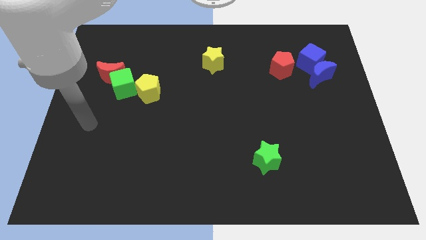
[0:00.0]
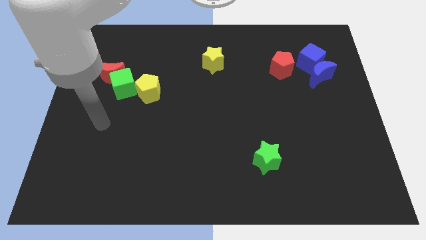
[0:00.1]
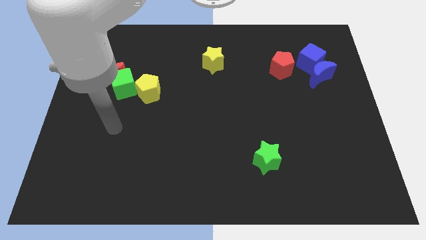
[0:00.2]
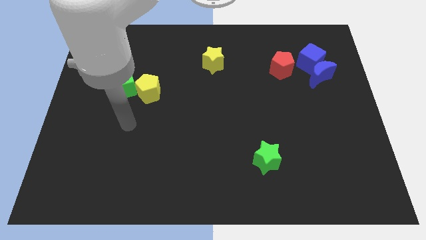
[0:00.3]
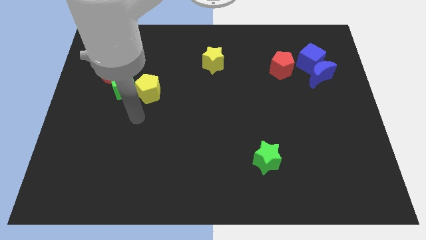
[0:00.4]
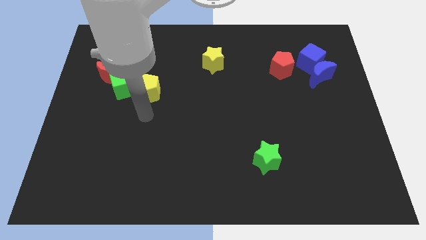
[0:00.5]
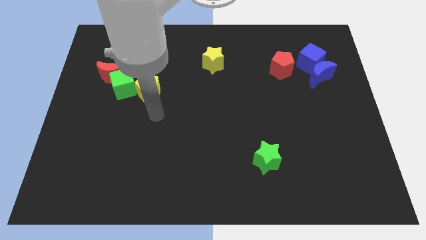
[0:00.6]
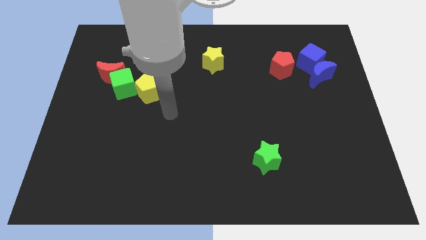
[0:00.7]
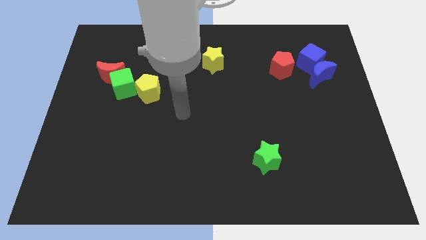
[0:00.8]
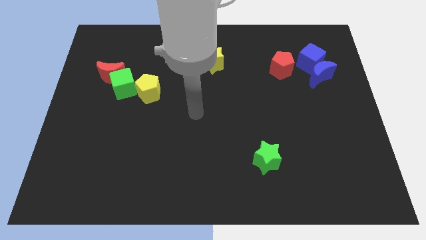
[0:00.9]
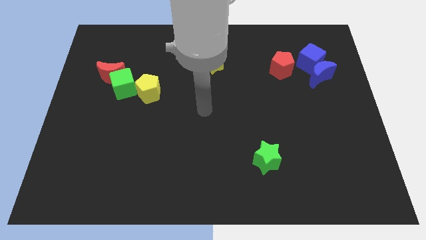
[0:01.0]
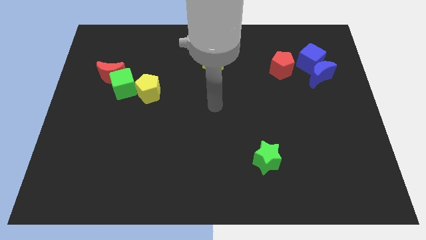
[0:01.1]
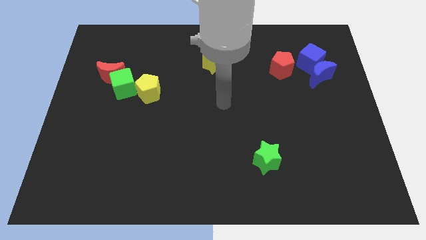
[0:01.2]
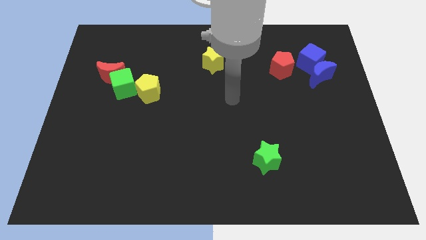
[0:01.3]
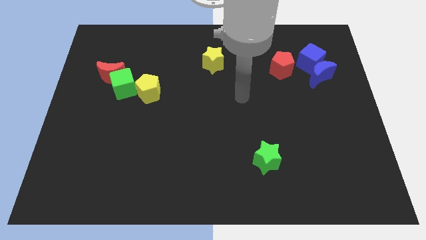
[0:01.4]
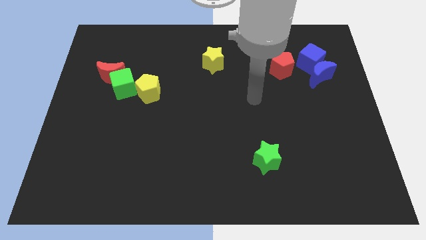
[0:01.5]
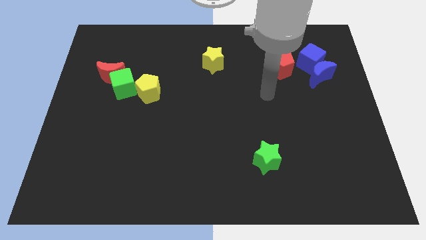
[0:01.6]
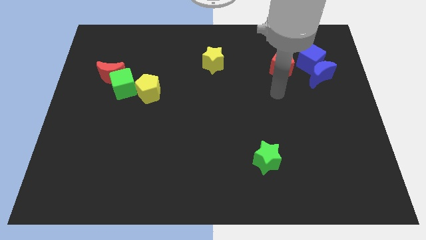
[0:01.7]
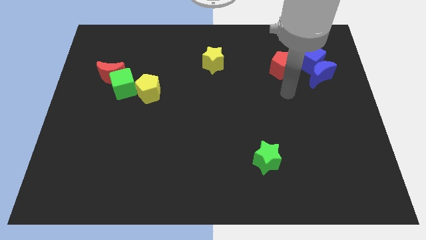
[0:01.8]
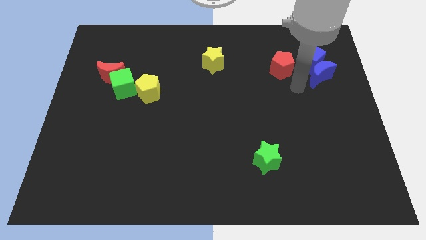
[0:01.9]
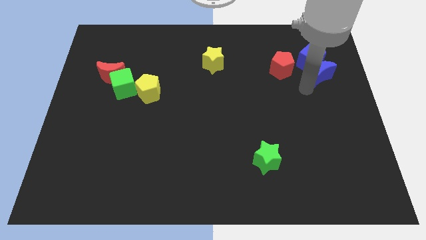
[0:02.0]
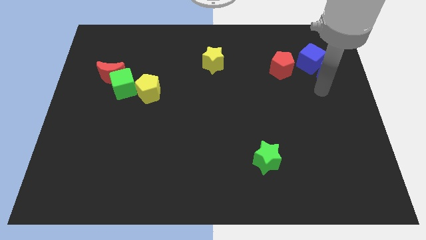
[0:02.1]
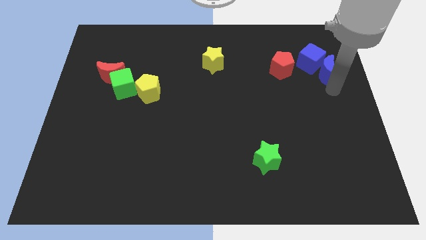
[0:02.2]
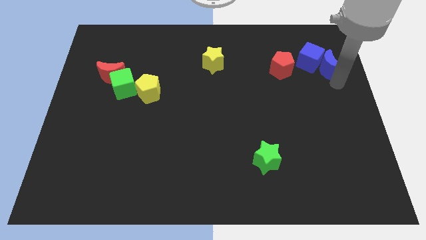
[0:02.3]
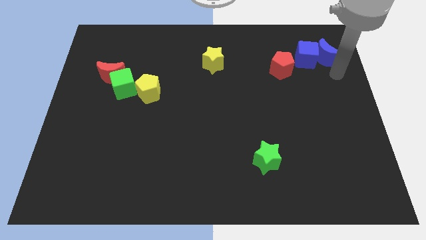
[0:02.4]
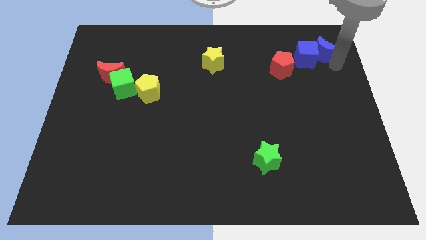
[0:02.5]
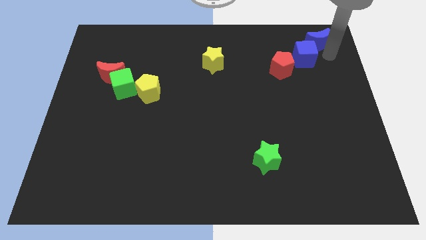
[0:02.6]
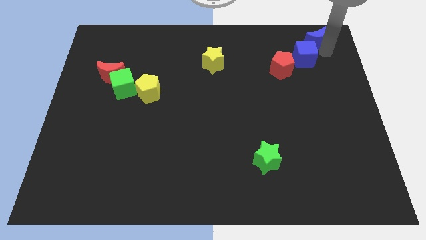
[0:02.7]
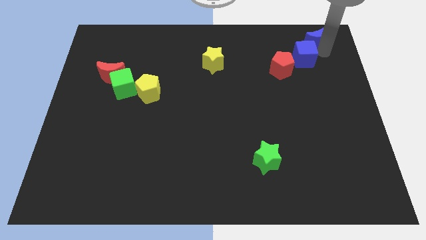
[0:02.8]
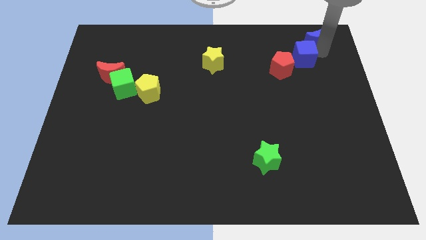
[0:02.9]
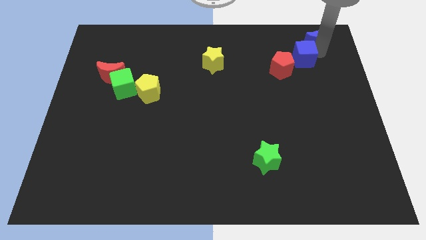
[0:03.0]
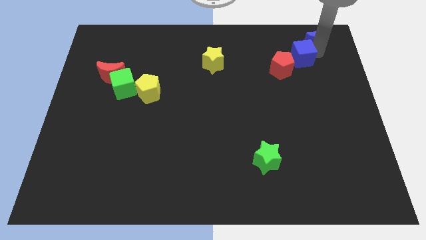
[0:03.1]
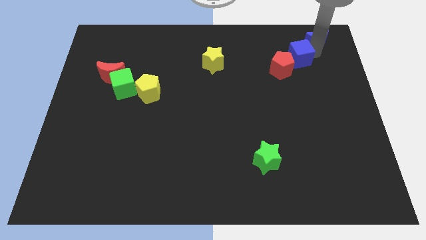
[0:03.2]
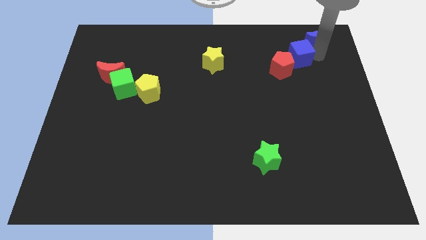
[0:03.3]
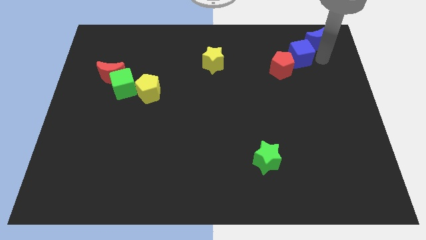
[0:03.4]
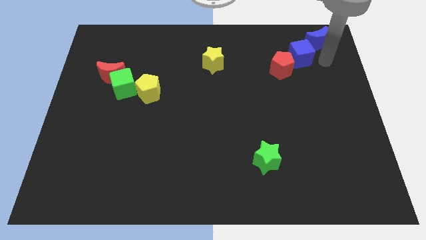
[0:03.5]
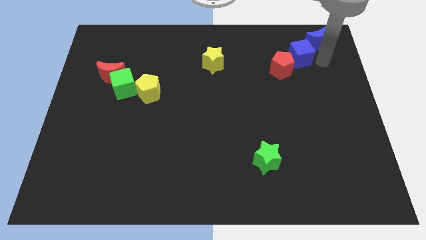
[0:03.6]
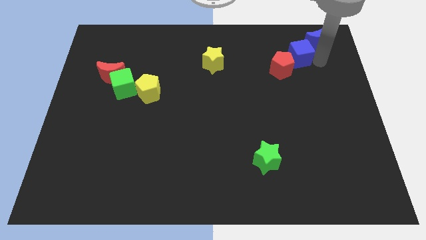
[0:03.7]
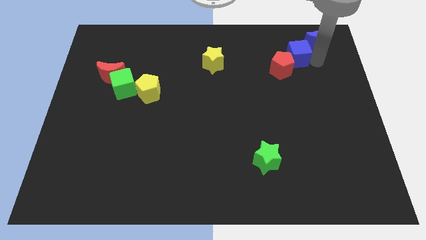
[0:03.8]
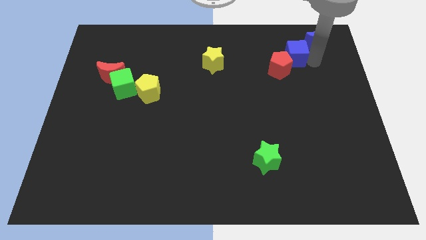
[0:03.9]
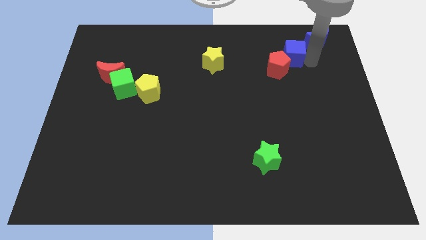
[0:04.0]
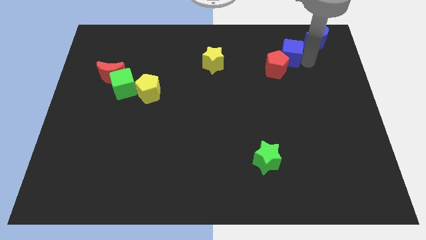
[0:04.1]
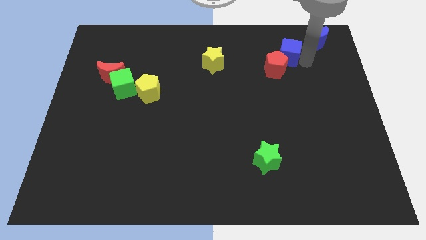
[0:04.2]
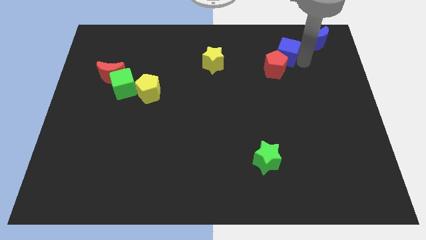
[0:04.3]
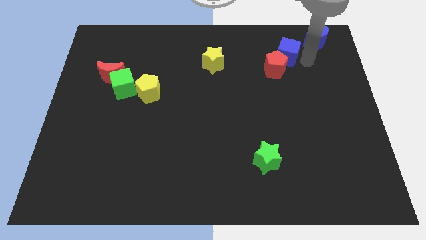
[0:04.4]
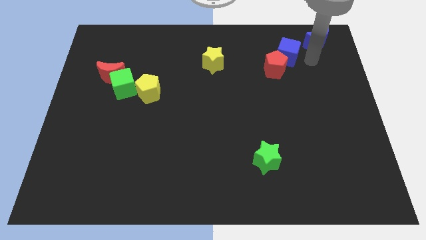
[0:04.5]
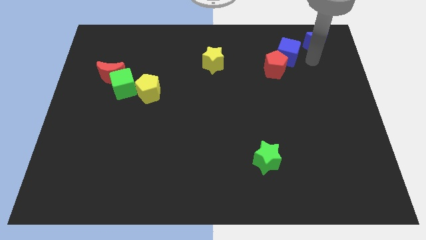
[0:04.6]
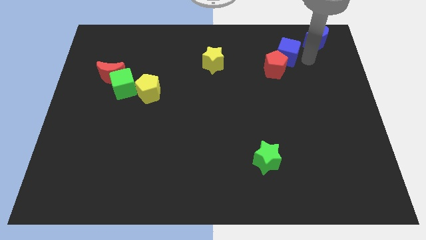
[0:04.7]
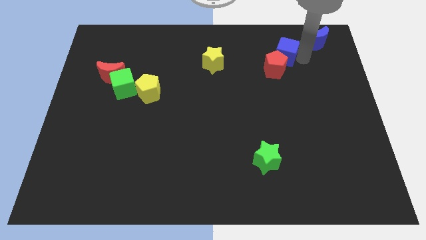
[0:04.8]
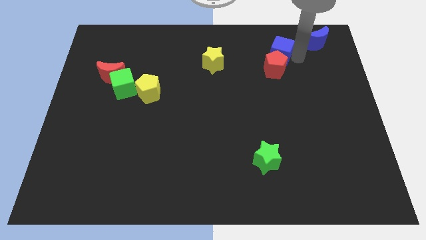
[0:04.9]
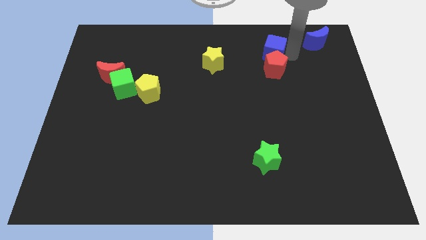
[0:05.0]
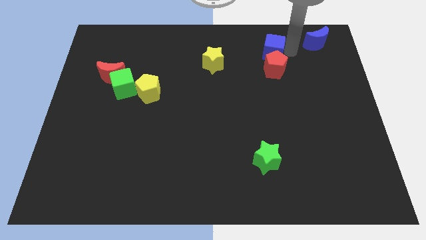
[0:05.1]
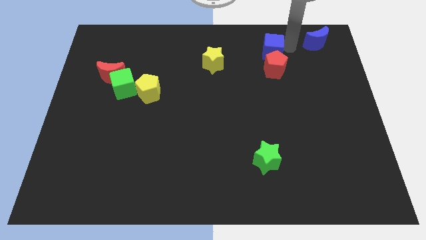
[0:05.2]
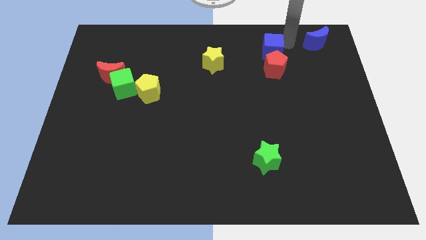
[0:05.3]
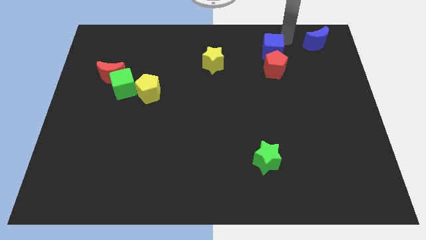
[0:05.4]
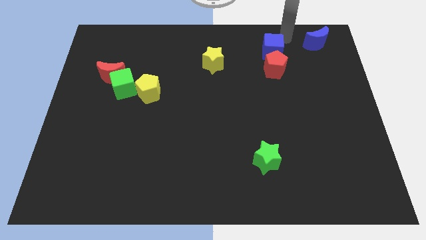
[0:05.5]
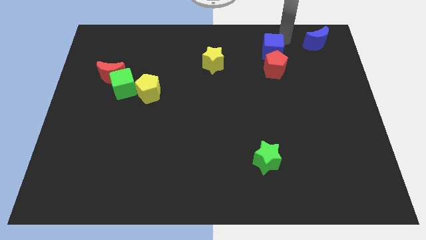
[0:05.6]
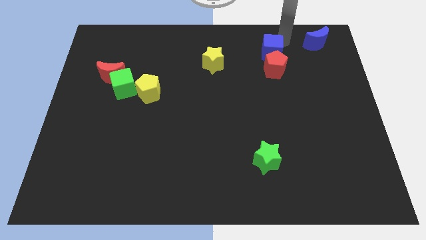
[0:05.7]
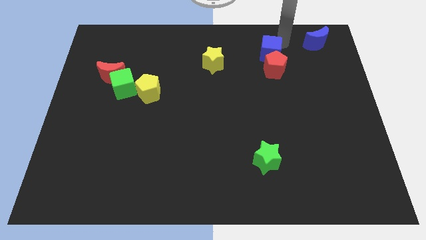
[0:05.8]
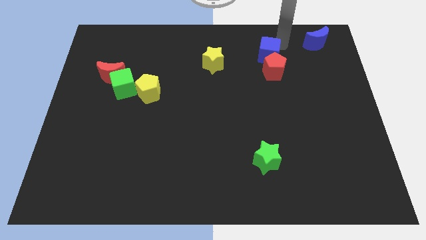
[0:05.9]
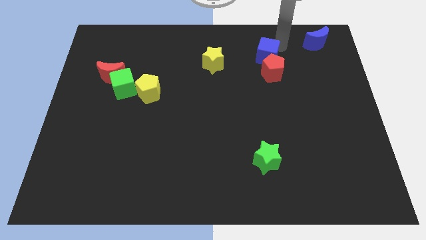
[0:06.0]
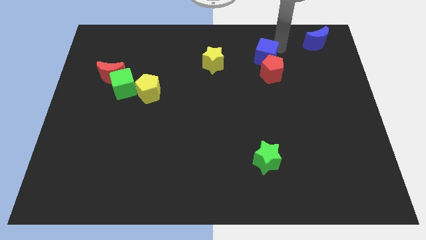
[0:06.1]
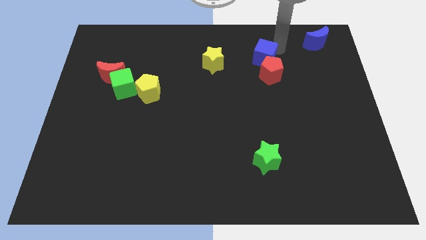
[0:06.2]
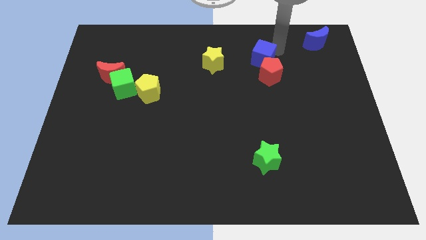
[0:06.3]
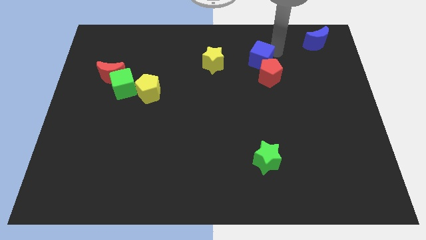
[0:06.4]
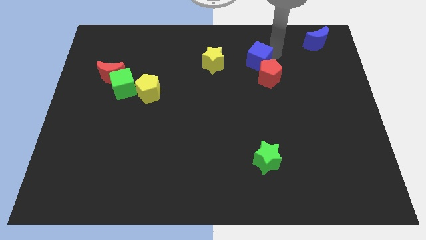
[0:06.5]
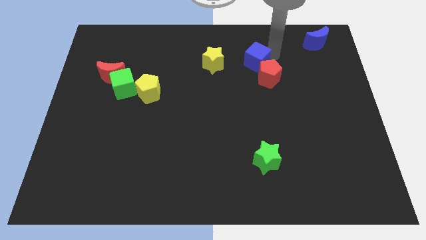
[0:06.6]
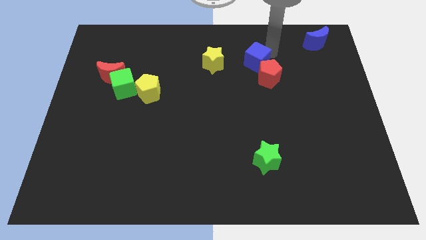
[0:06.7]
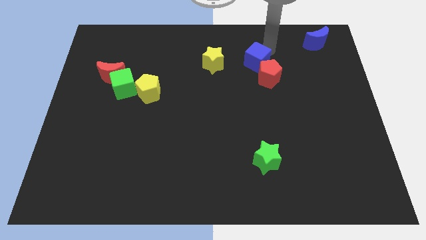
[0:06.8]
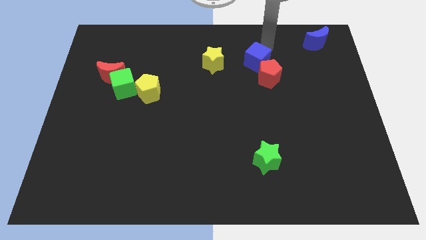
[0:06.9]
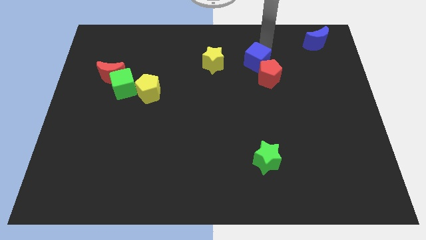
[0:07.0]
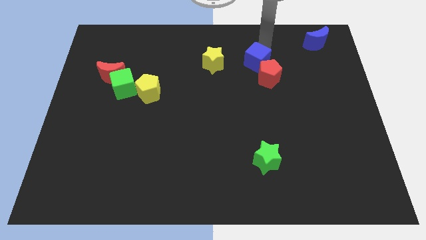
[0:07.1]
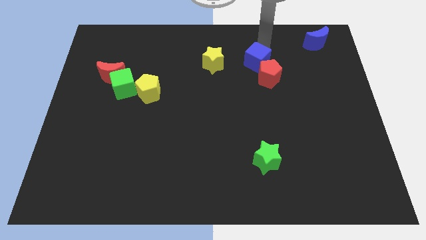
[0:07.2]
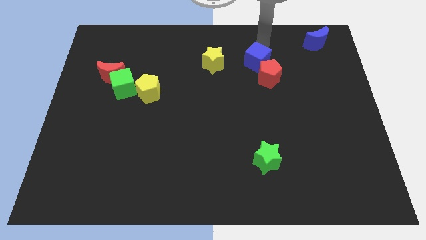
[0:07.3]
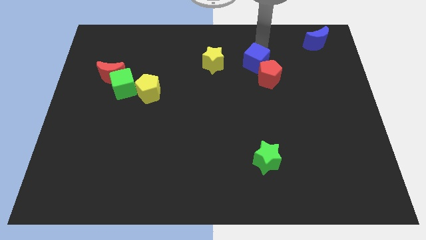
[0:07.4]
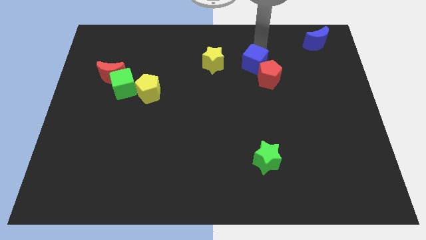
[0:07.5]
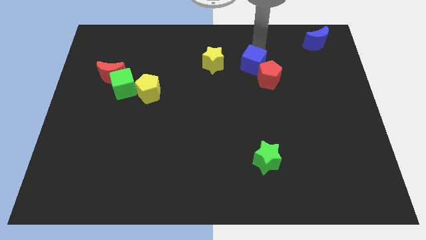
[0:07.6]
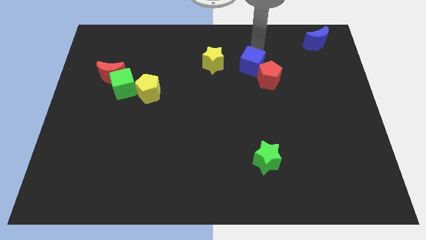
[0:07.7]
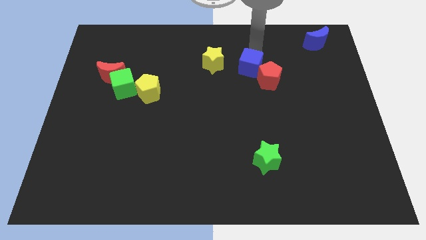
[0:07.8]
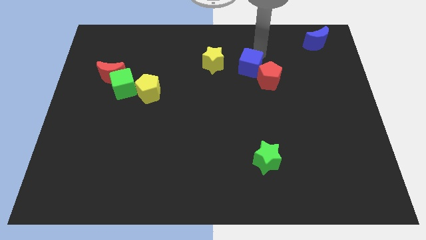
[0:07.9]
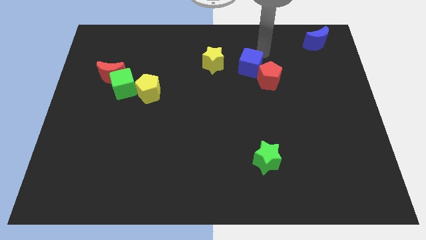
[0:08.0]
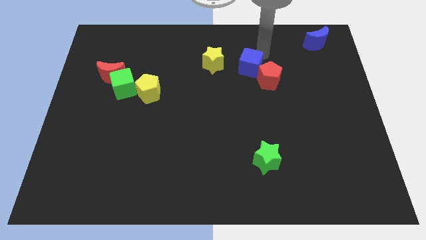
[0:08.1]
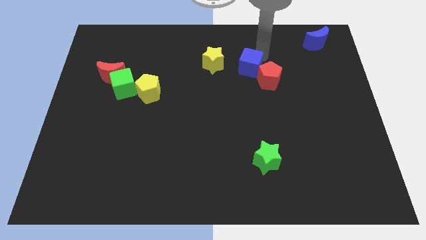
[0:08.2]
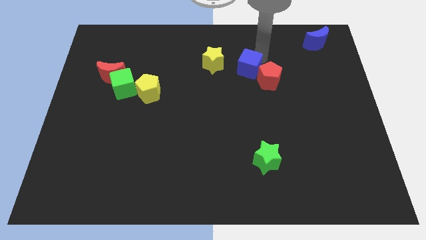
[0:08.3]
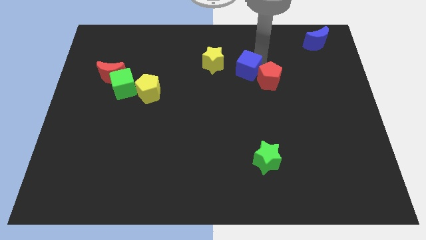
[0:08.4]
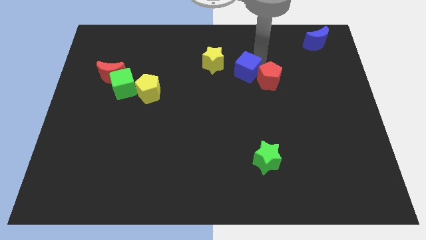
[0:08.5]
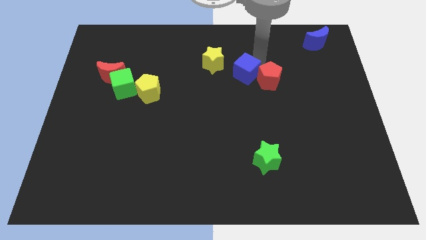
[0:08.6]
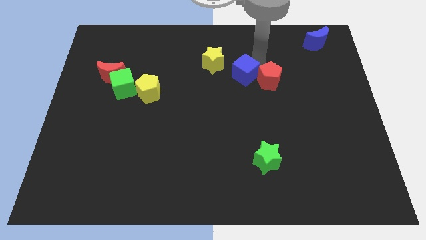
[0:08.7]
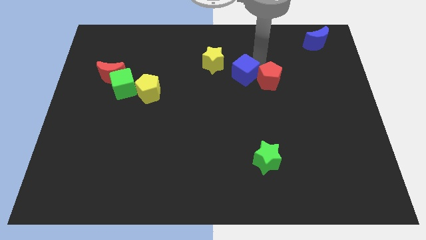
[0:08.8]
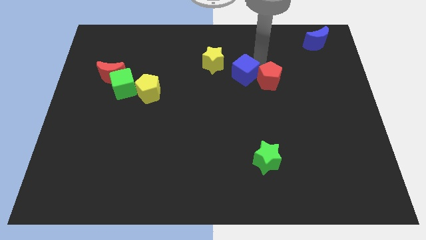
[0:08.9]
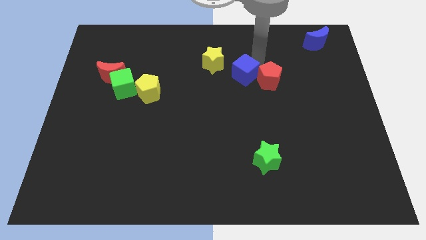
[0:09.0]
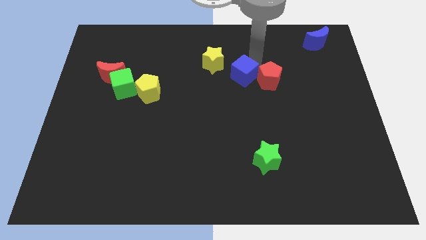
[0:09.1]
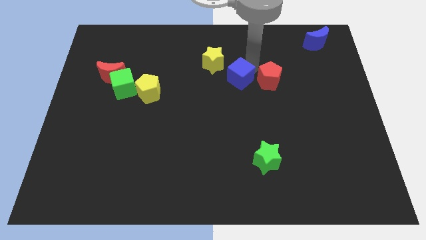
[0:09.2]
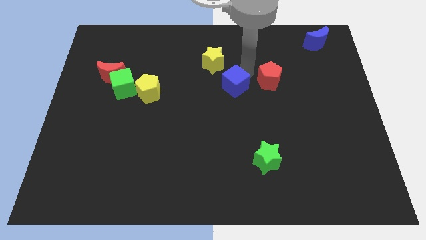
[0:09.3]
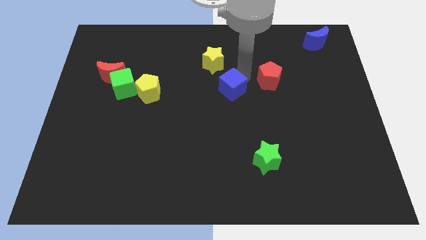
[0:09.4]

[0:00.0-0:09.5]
put the blue cube to the bottom side of the yellow star
